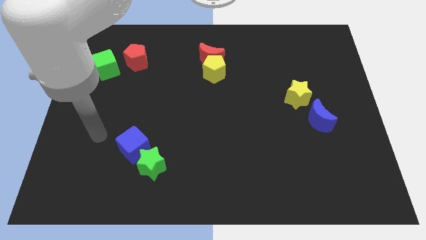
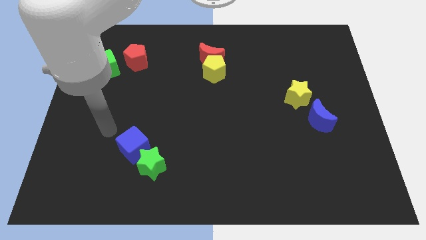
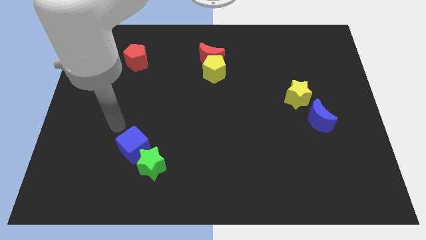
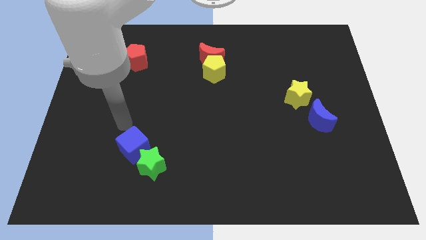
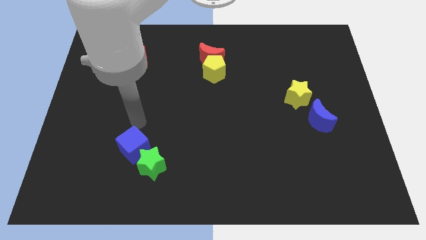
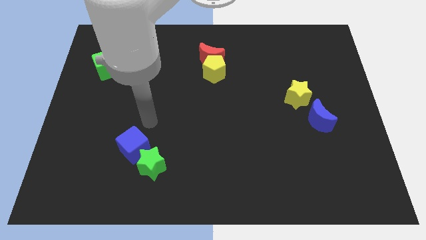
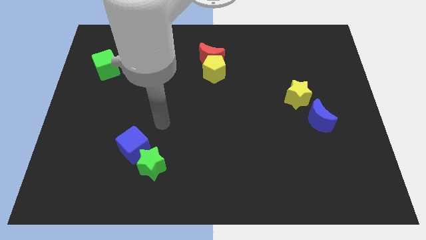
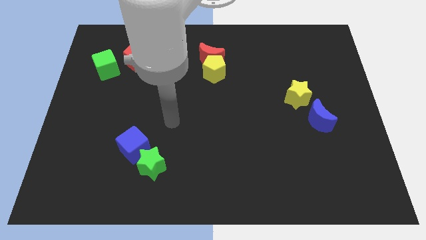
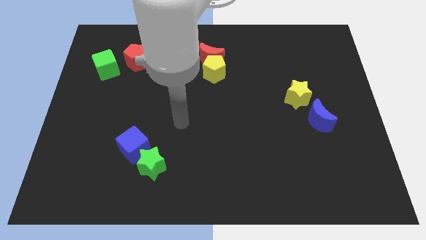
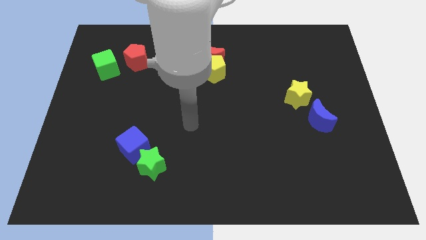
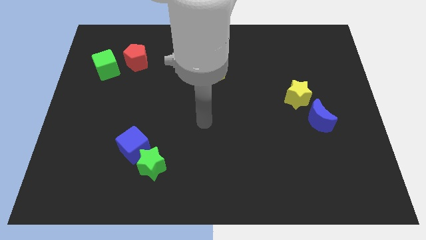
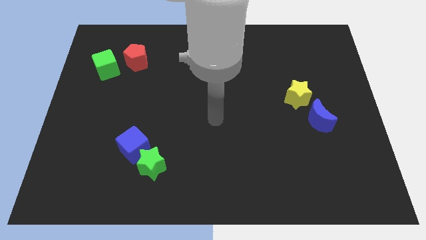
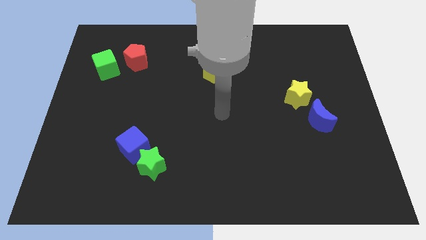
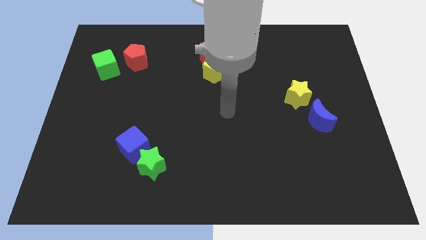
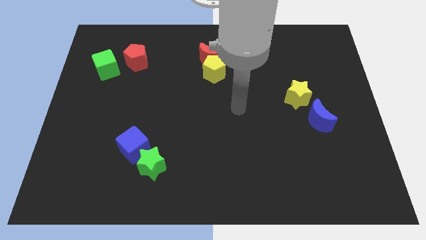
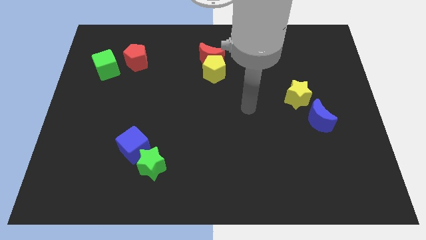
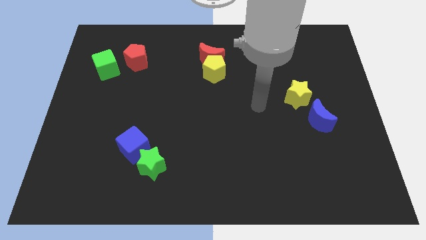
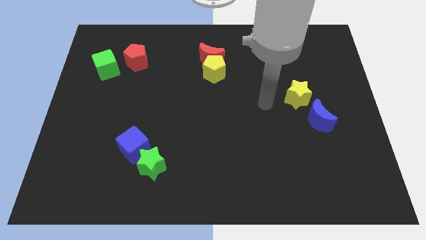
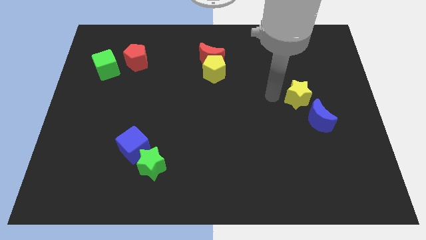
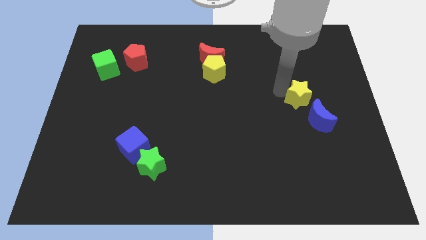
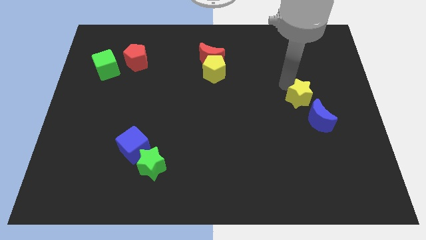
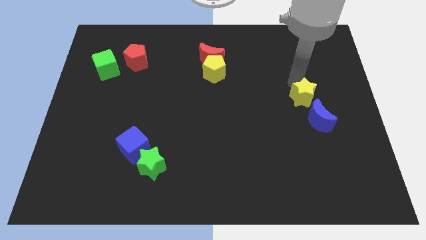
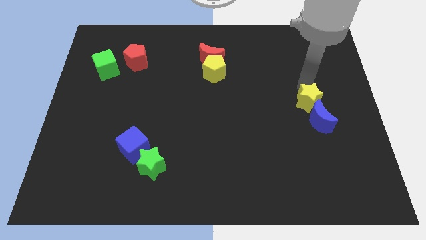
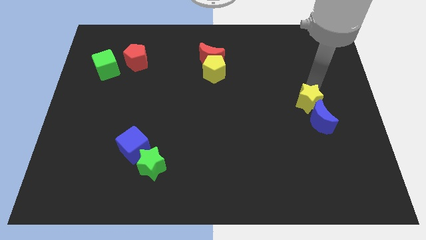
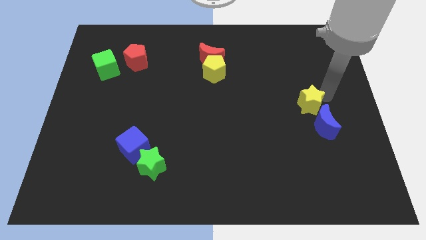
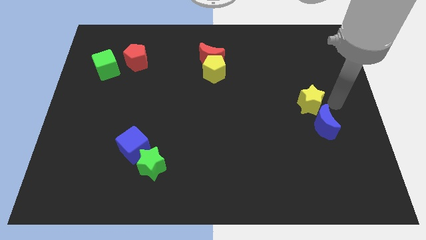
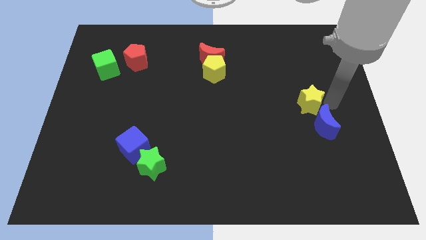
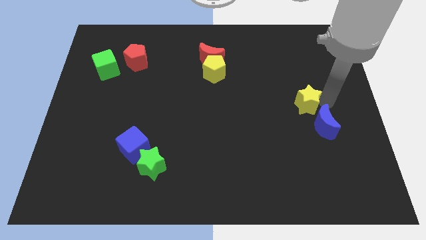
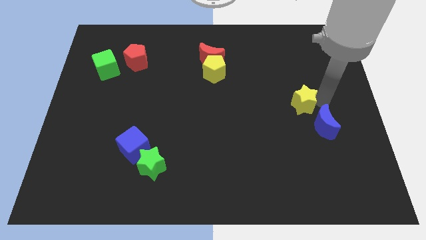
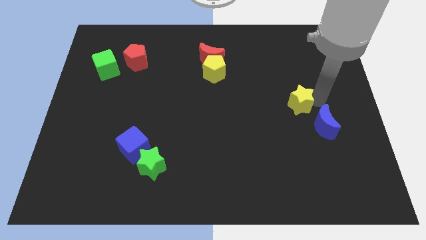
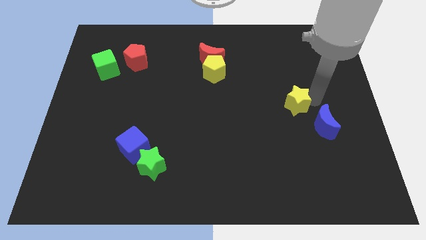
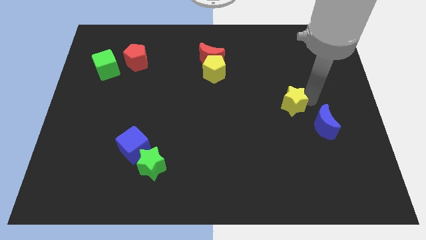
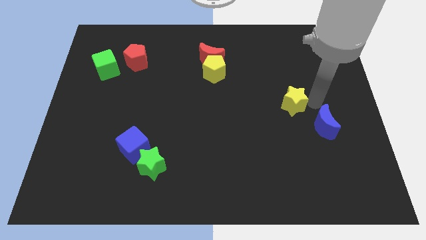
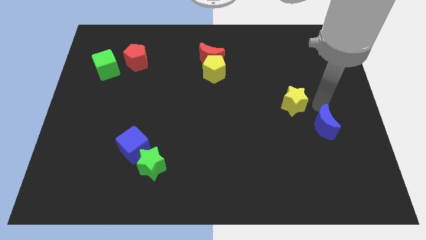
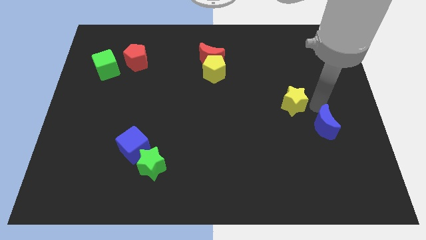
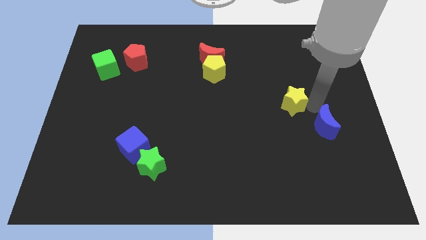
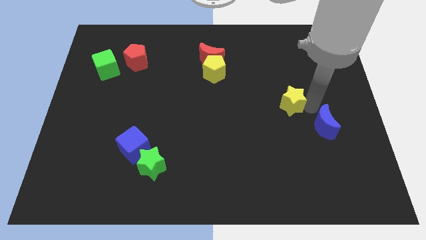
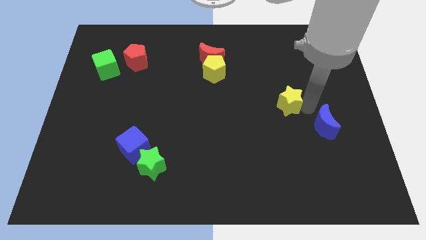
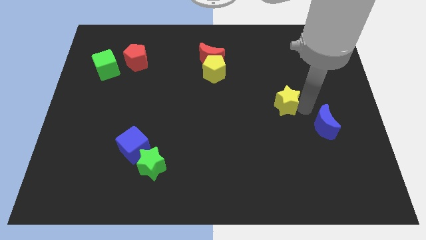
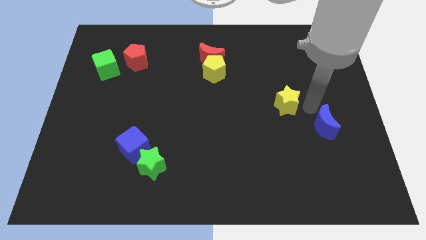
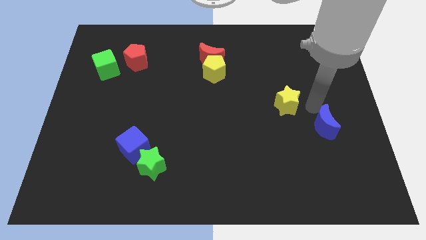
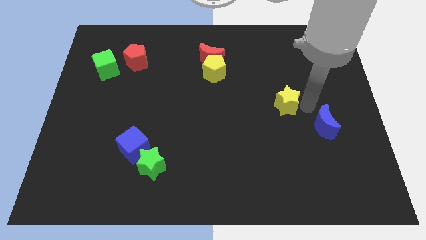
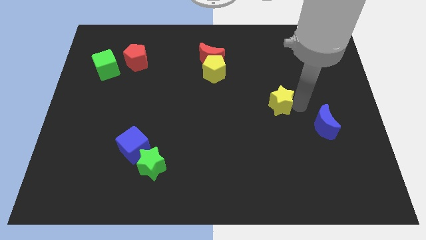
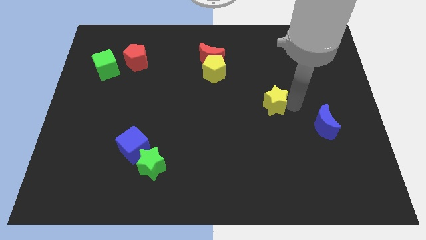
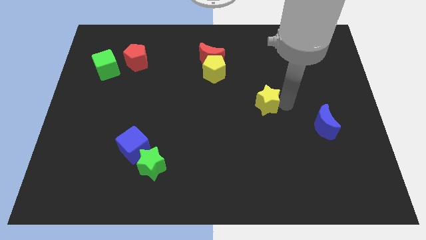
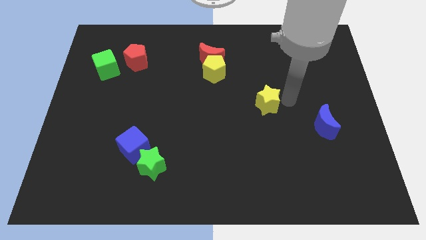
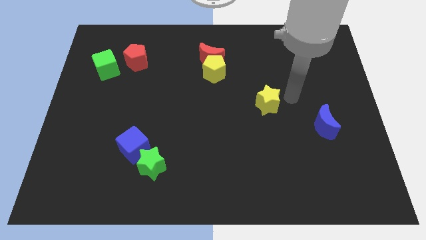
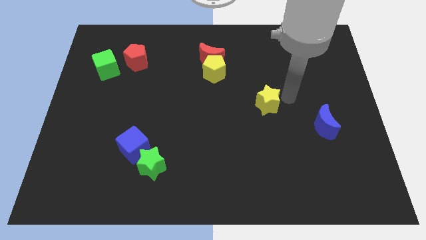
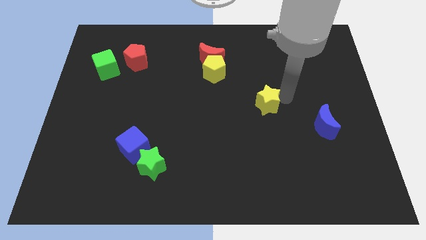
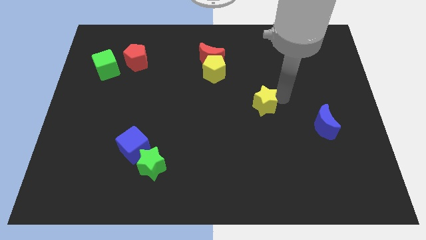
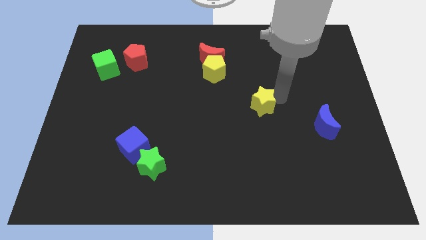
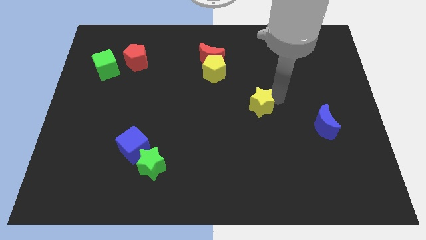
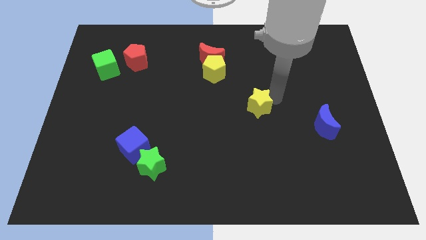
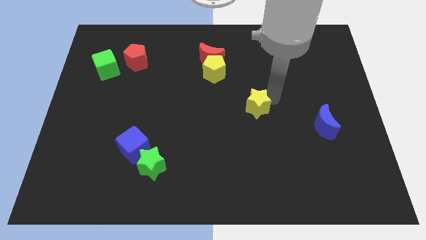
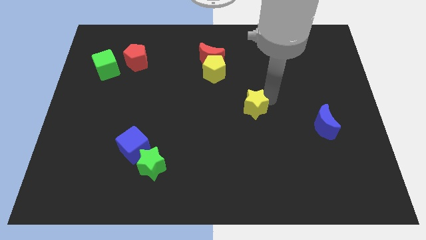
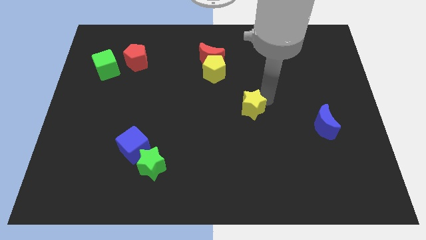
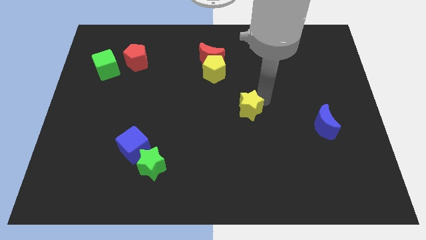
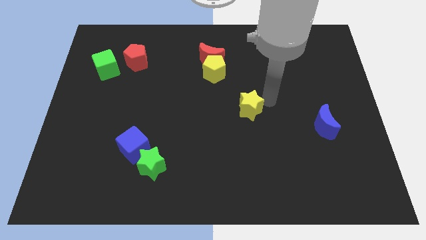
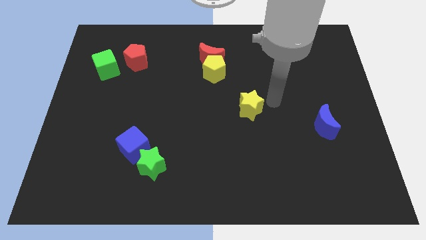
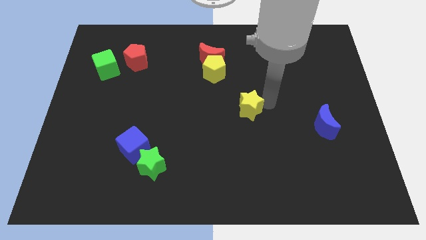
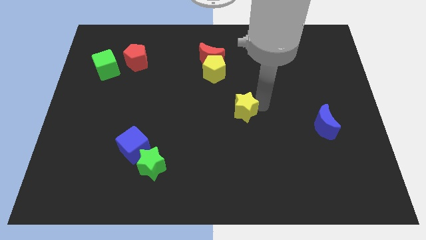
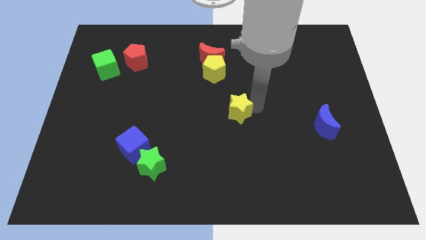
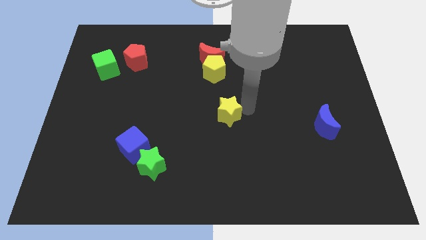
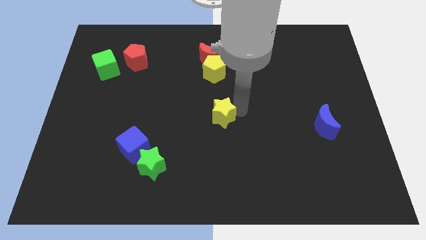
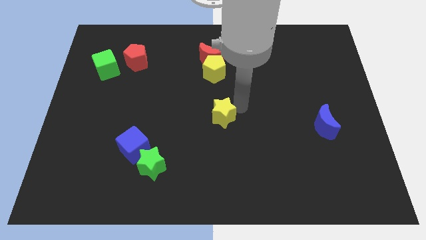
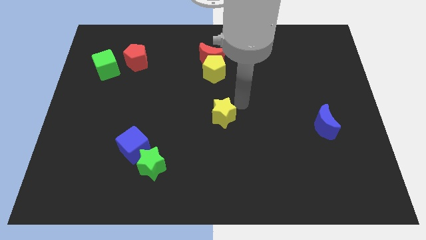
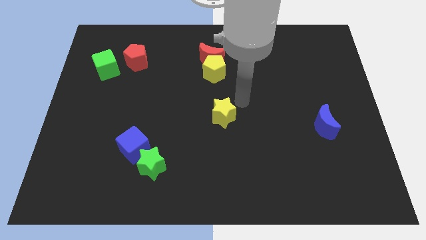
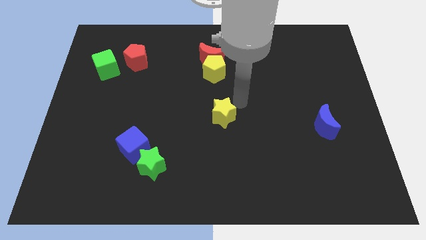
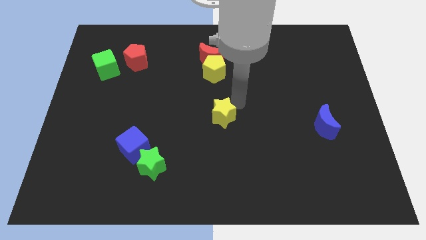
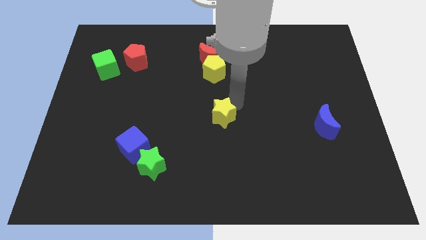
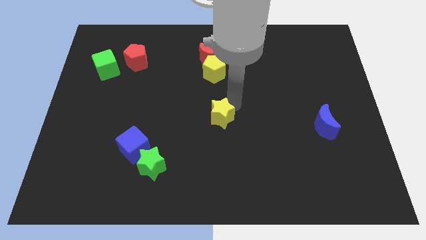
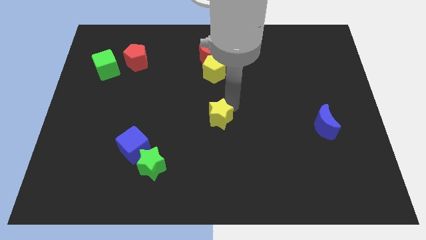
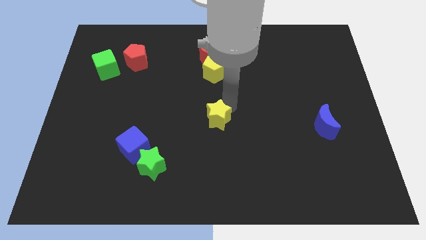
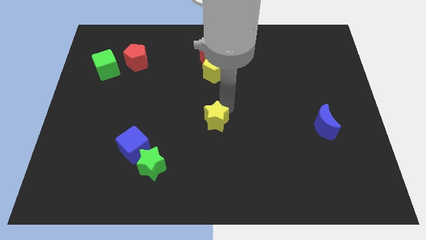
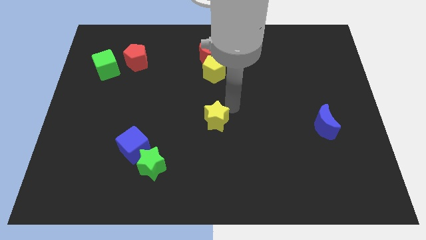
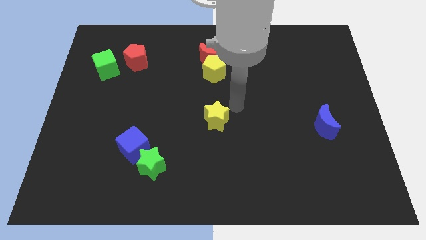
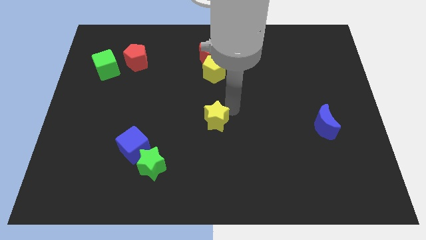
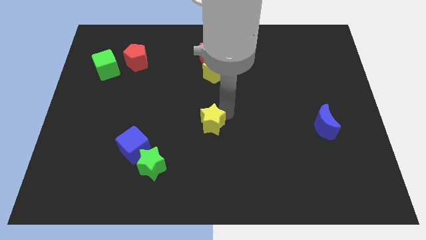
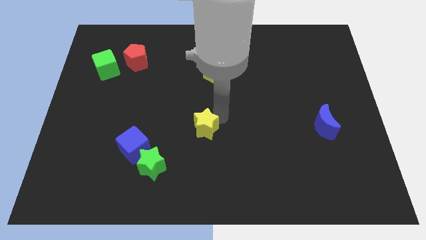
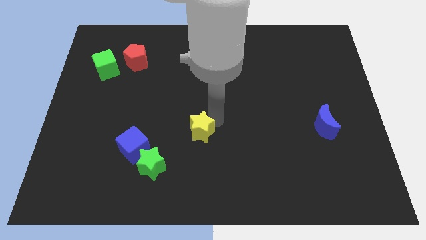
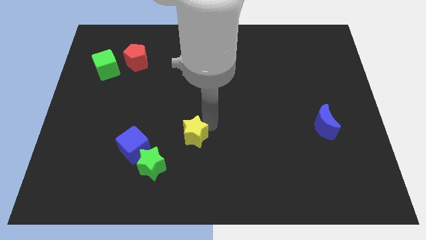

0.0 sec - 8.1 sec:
put the yellow star to the right of the blue cube
